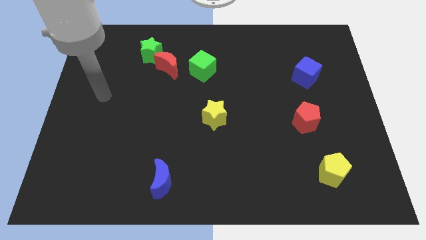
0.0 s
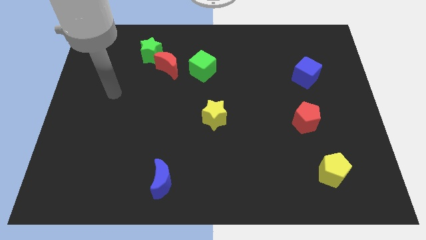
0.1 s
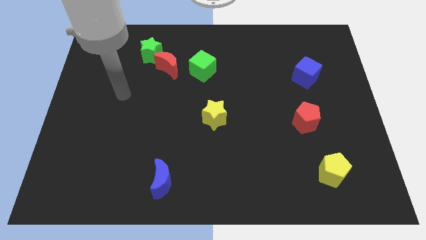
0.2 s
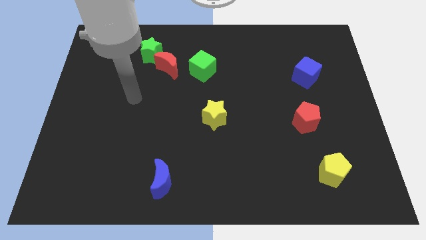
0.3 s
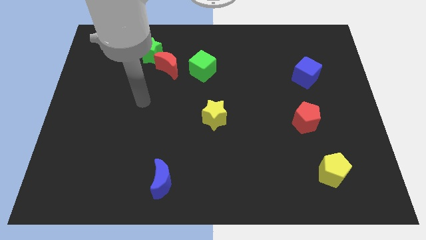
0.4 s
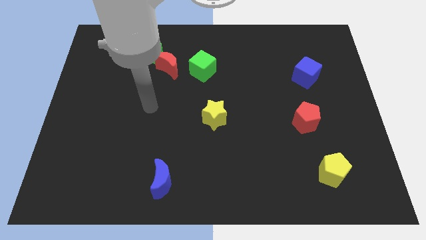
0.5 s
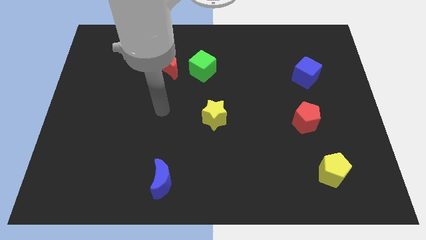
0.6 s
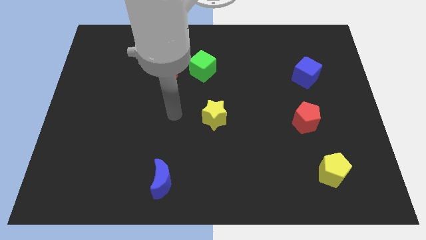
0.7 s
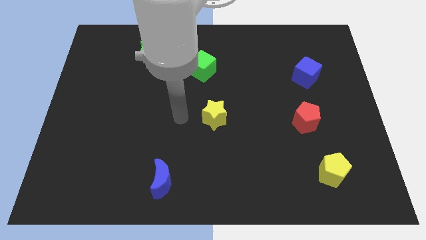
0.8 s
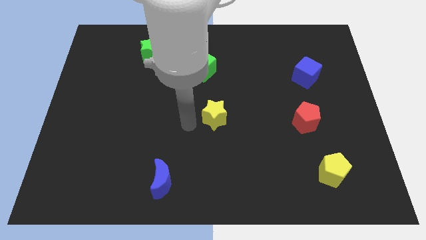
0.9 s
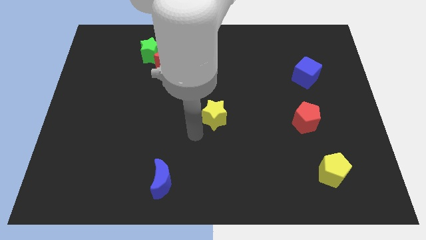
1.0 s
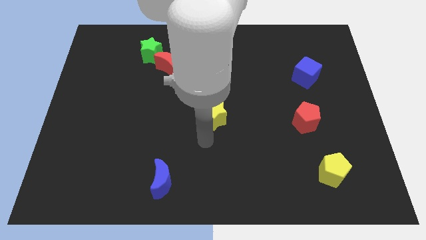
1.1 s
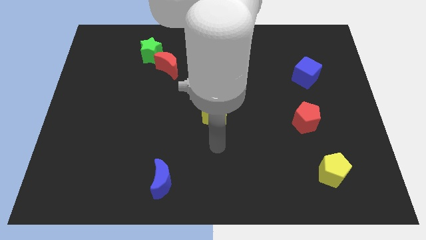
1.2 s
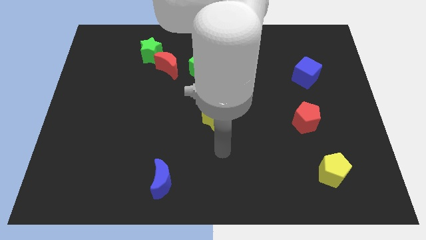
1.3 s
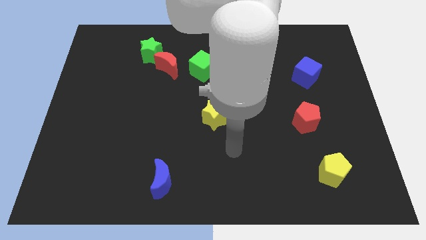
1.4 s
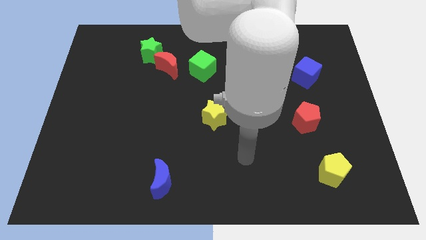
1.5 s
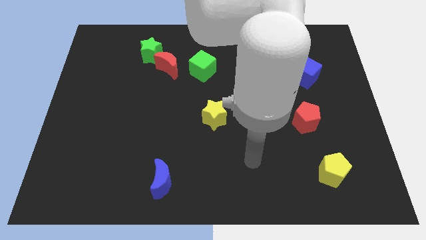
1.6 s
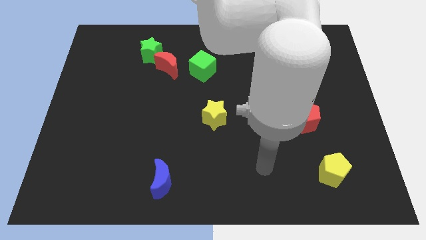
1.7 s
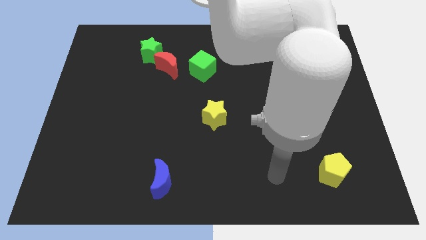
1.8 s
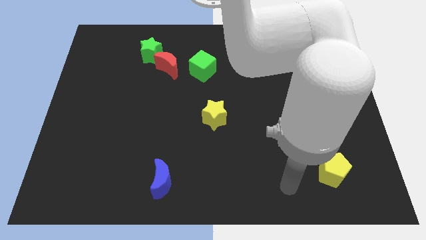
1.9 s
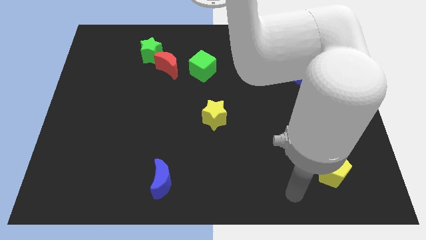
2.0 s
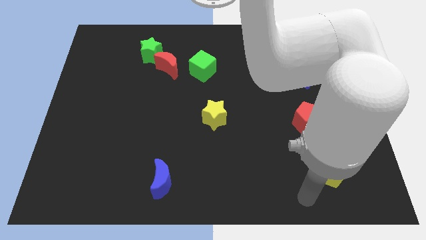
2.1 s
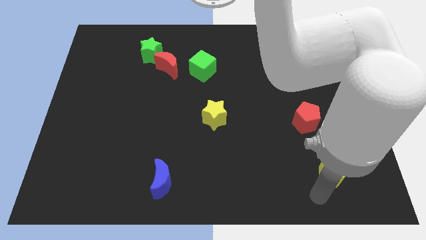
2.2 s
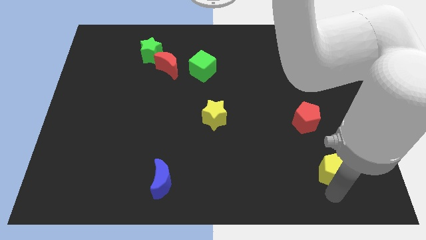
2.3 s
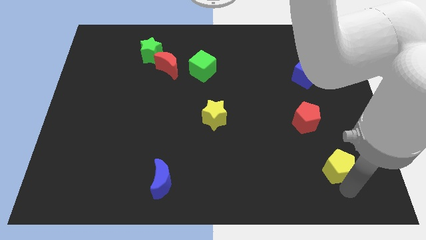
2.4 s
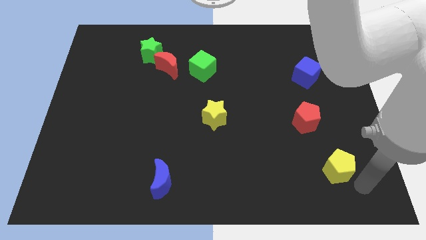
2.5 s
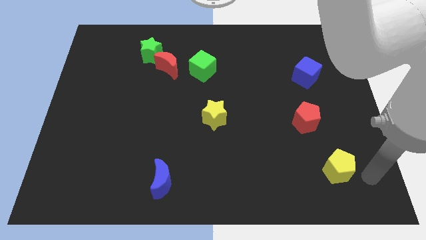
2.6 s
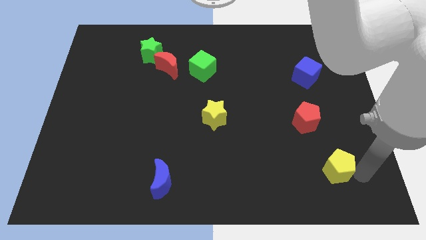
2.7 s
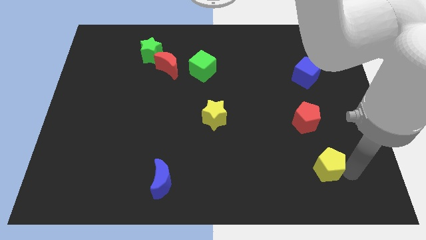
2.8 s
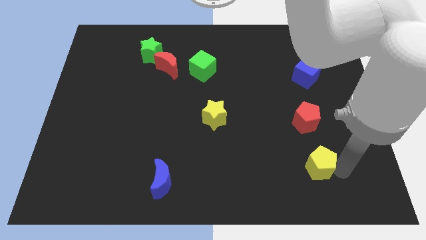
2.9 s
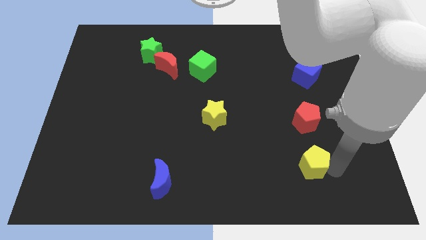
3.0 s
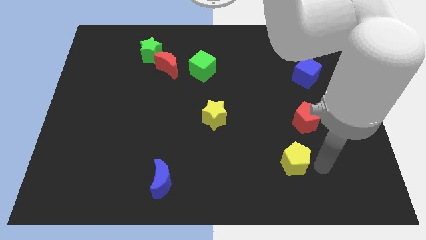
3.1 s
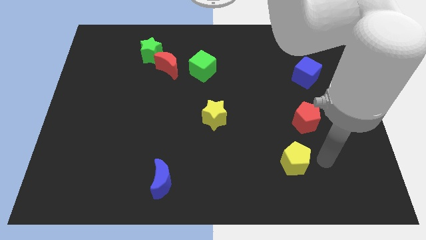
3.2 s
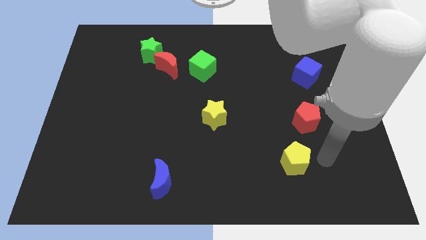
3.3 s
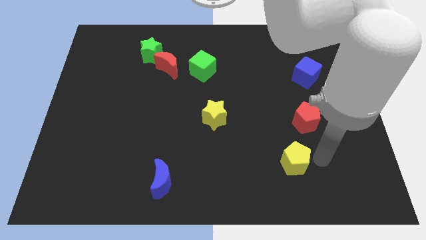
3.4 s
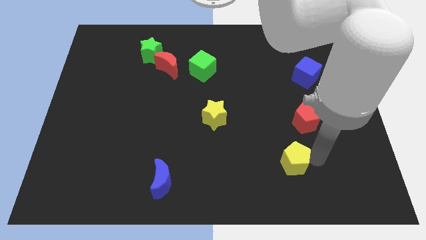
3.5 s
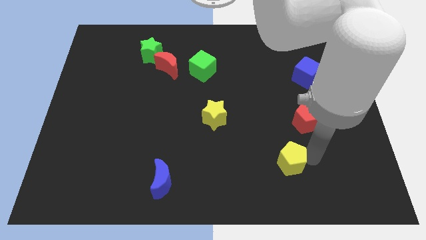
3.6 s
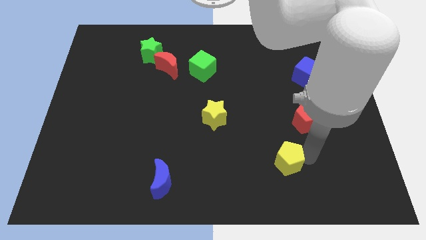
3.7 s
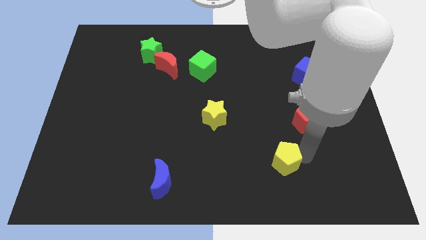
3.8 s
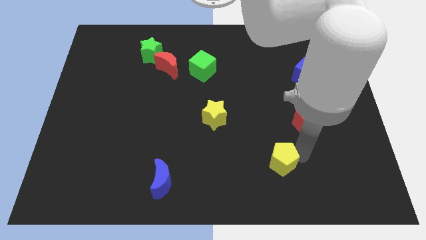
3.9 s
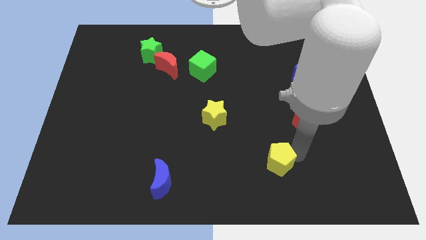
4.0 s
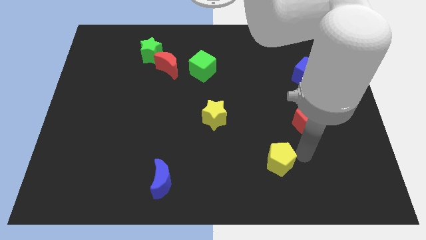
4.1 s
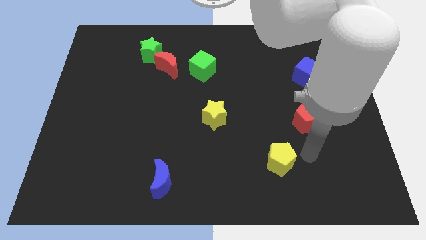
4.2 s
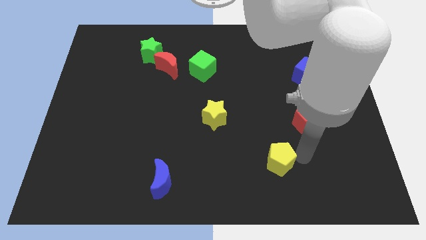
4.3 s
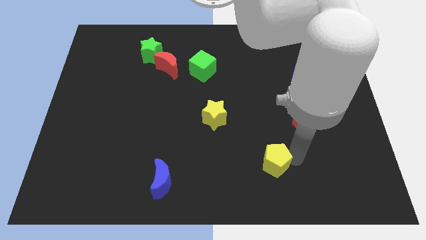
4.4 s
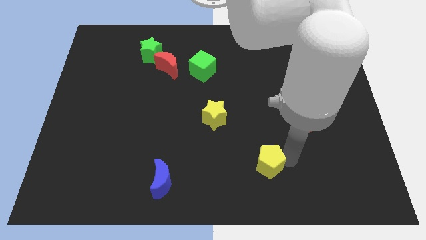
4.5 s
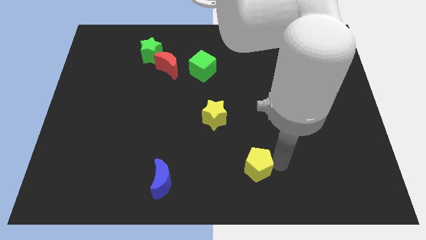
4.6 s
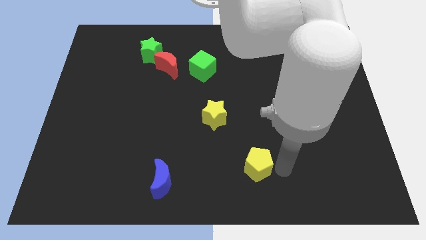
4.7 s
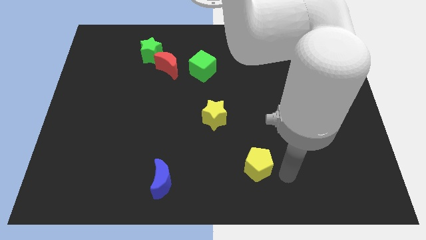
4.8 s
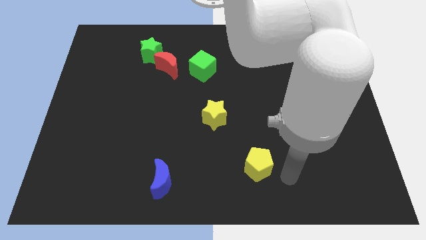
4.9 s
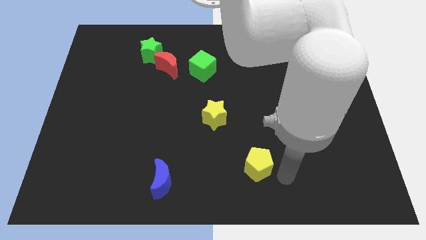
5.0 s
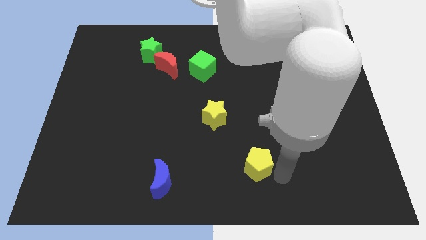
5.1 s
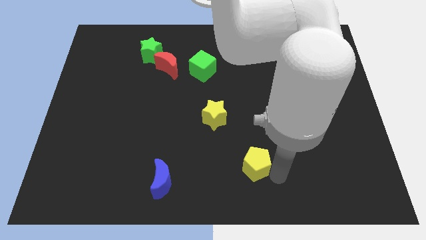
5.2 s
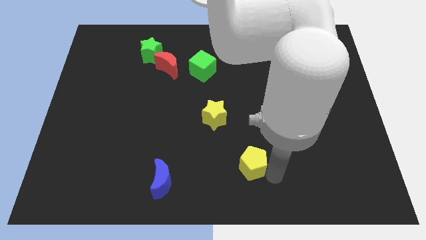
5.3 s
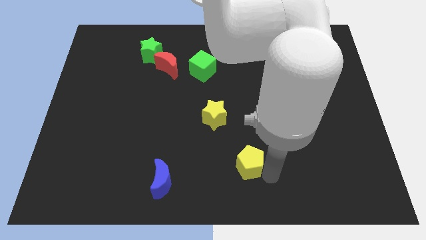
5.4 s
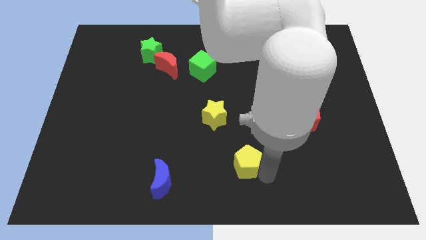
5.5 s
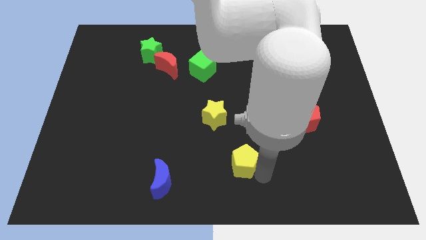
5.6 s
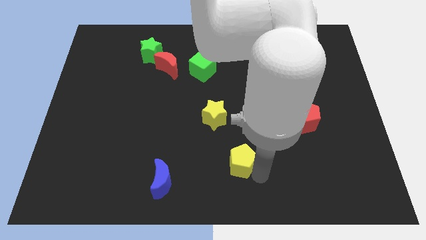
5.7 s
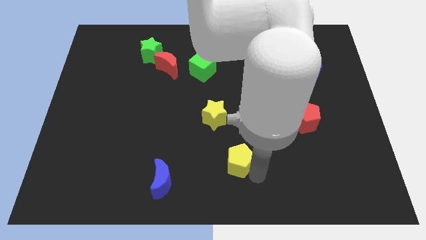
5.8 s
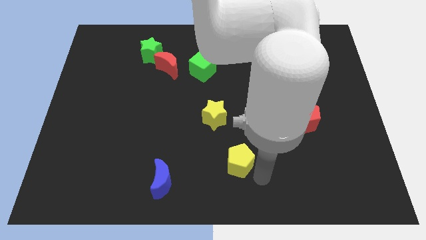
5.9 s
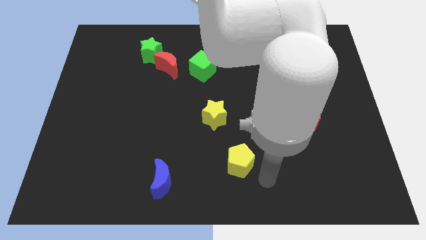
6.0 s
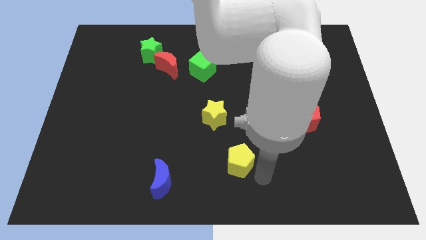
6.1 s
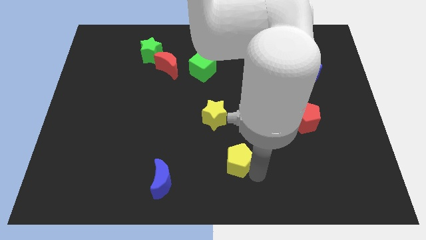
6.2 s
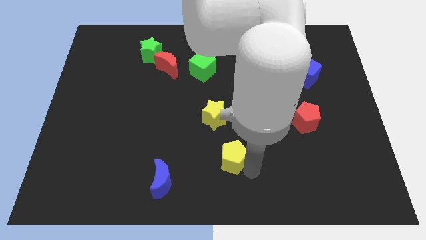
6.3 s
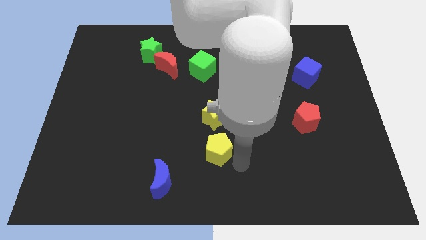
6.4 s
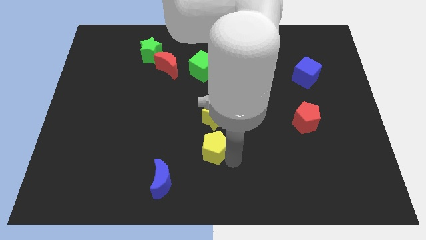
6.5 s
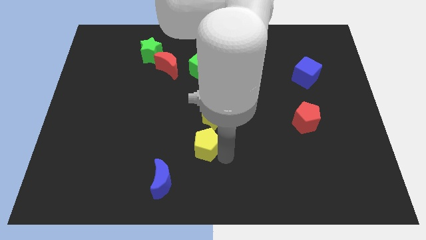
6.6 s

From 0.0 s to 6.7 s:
put the yellow pentagon to the bottom left of the yellow star
